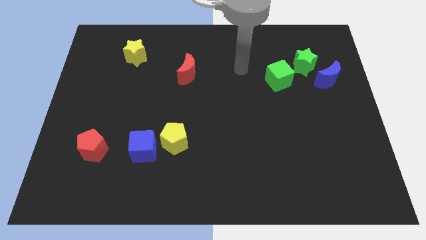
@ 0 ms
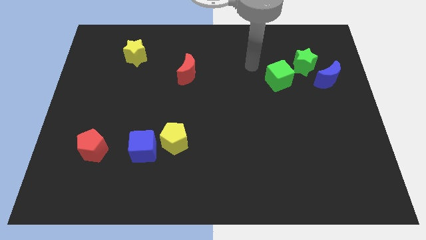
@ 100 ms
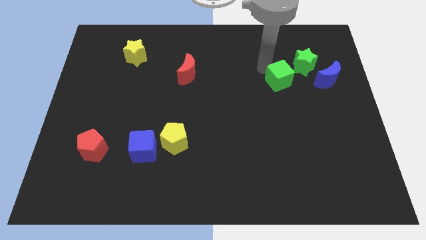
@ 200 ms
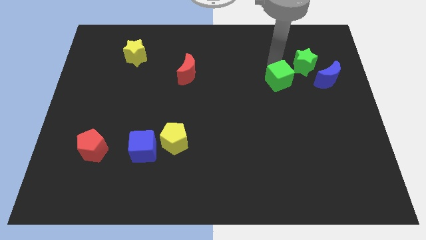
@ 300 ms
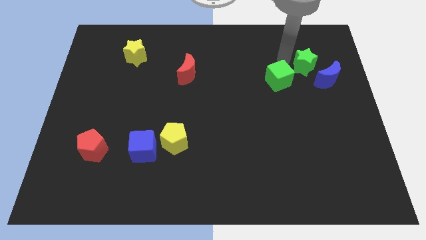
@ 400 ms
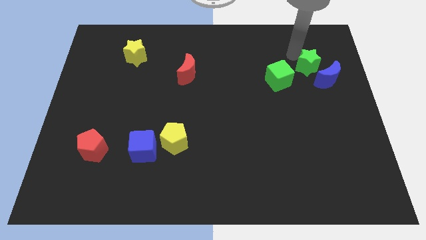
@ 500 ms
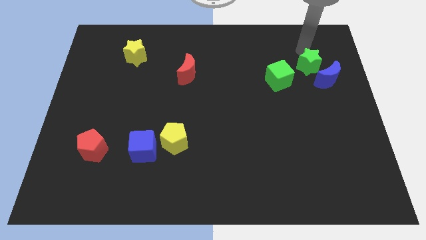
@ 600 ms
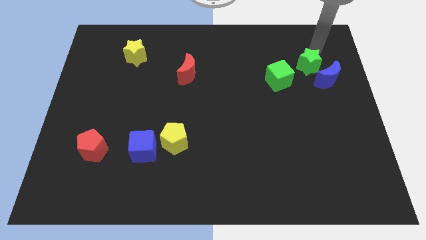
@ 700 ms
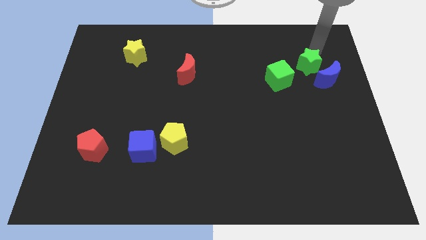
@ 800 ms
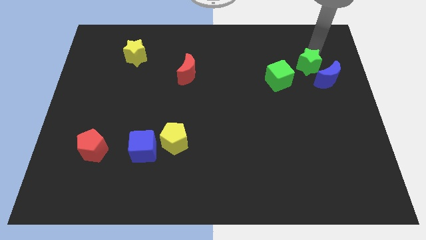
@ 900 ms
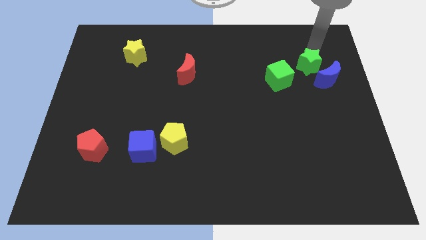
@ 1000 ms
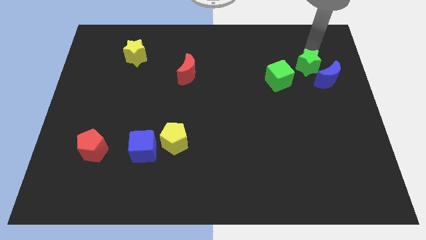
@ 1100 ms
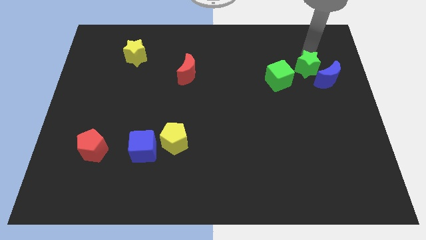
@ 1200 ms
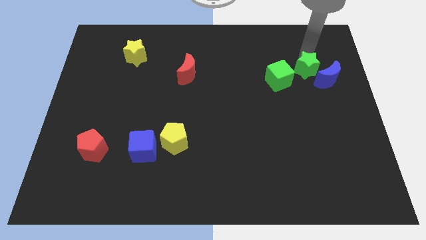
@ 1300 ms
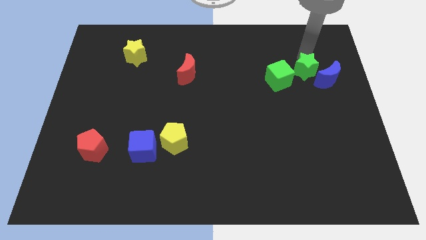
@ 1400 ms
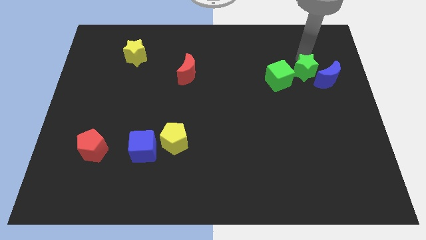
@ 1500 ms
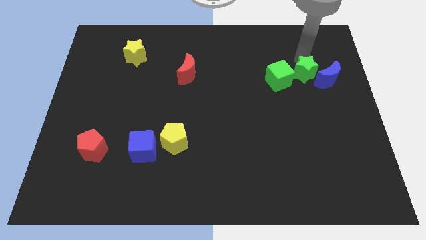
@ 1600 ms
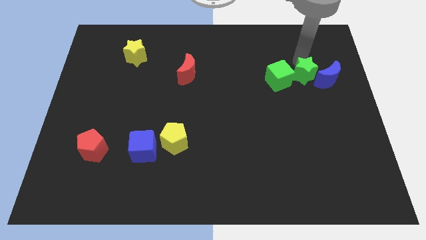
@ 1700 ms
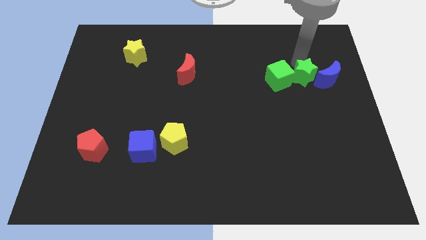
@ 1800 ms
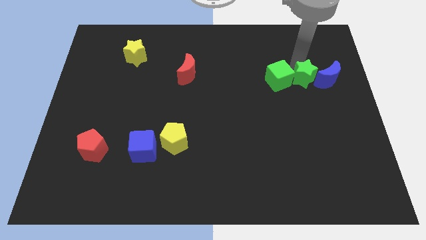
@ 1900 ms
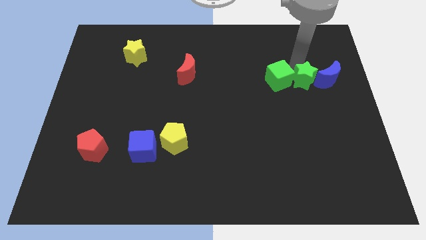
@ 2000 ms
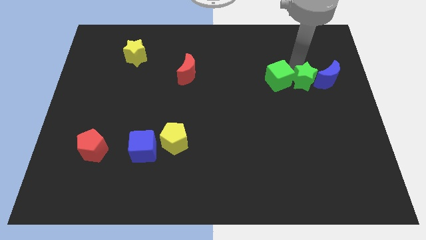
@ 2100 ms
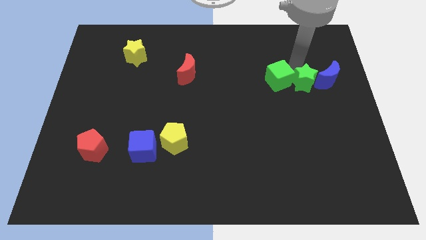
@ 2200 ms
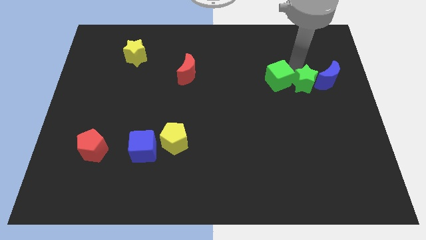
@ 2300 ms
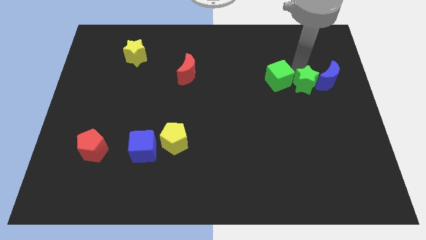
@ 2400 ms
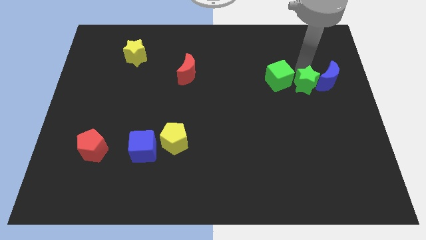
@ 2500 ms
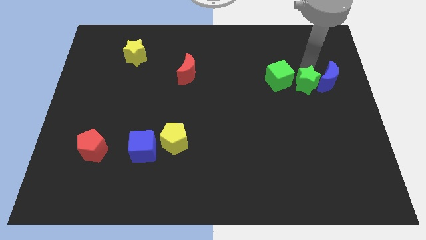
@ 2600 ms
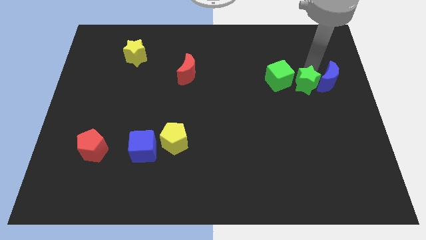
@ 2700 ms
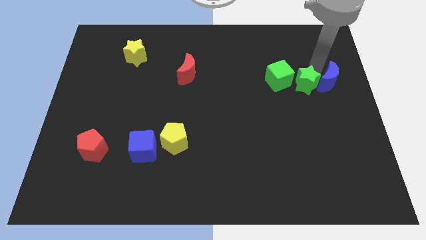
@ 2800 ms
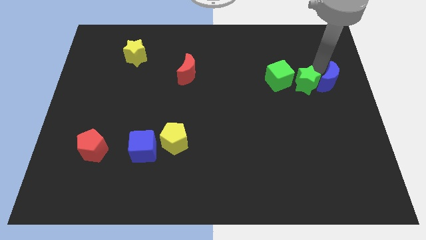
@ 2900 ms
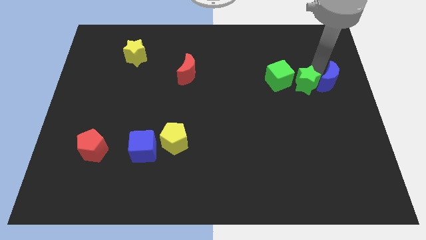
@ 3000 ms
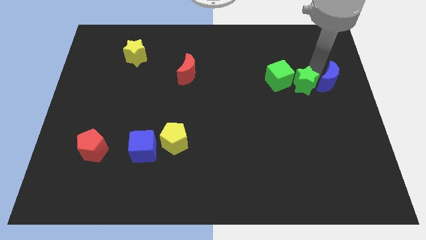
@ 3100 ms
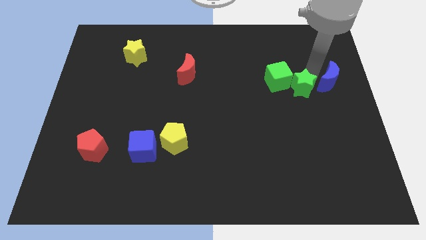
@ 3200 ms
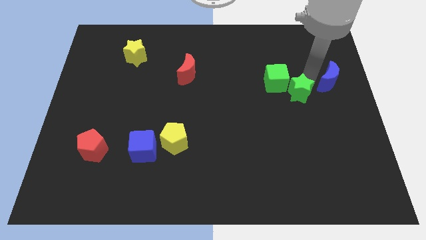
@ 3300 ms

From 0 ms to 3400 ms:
move the green star down and left a little

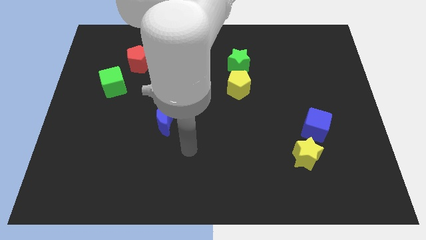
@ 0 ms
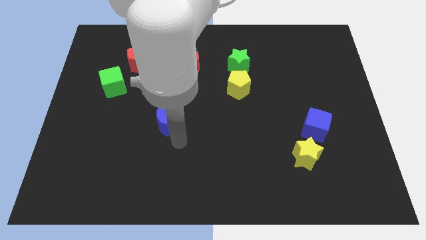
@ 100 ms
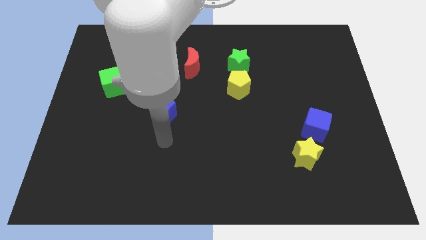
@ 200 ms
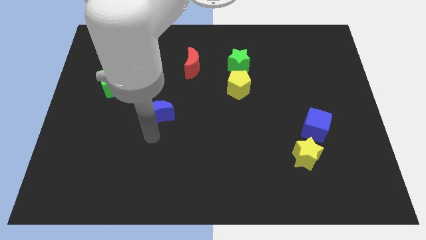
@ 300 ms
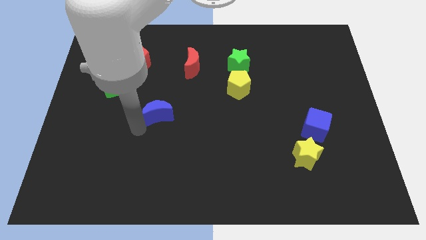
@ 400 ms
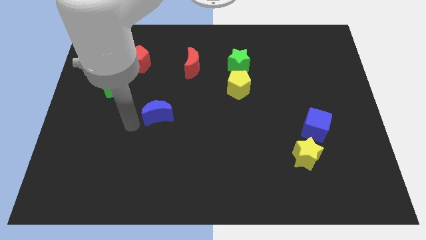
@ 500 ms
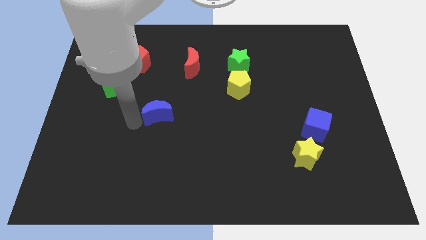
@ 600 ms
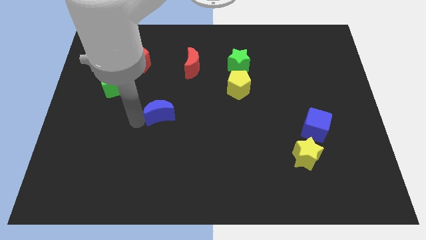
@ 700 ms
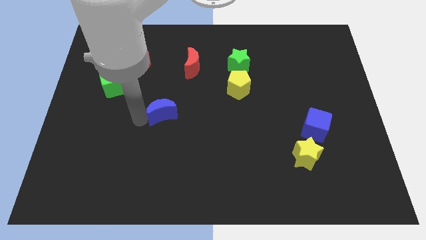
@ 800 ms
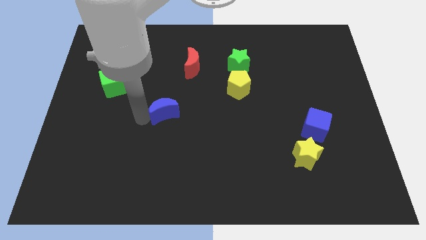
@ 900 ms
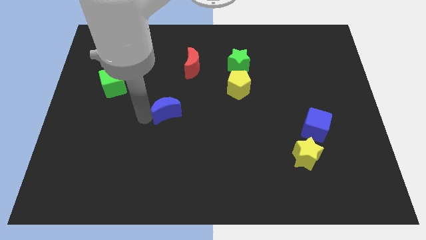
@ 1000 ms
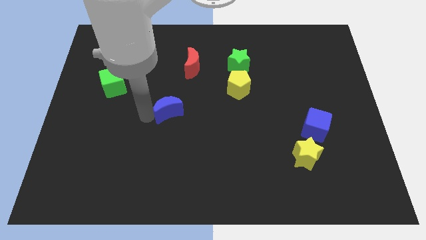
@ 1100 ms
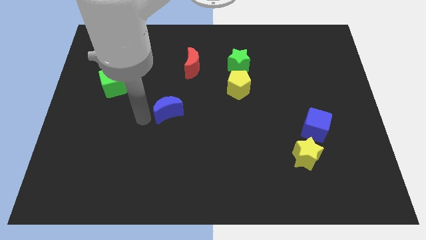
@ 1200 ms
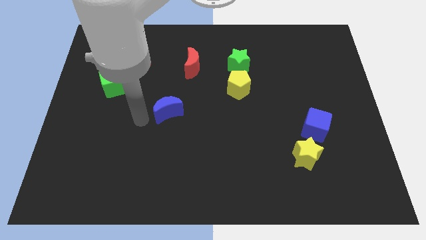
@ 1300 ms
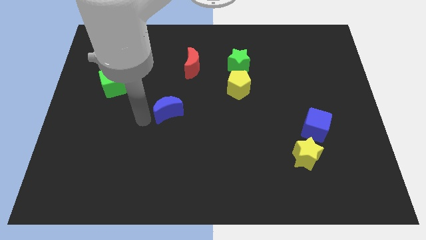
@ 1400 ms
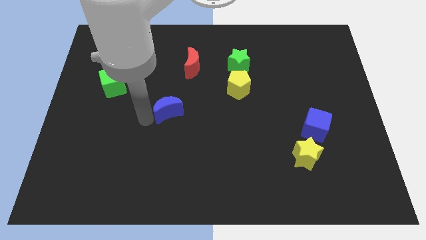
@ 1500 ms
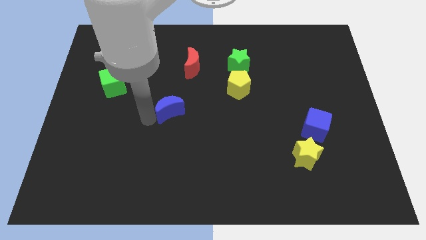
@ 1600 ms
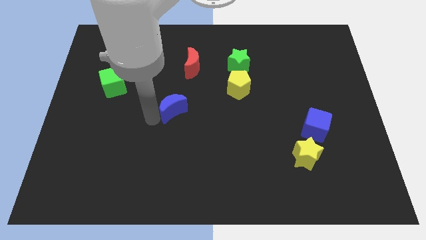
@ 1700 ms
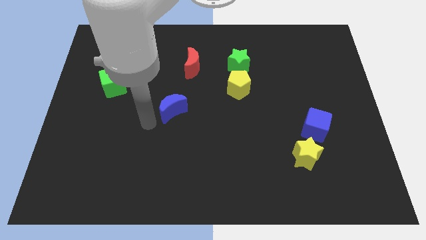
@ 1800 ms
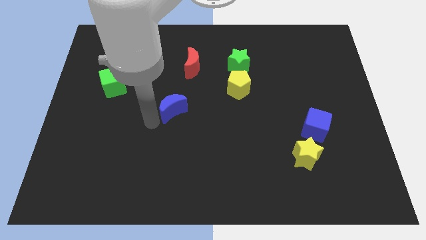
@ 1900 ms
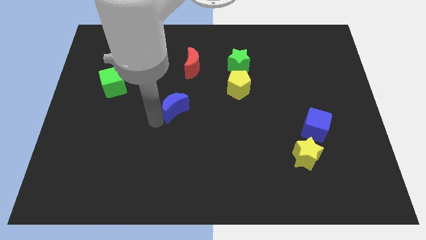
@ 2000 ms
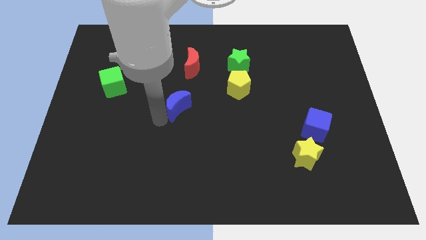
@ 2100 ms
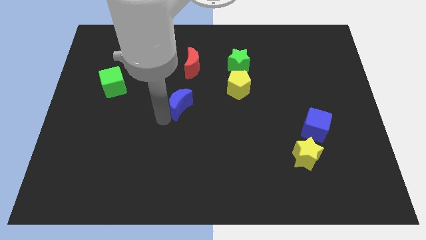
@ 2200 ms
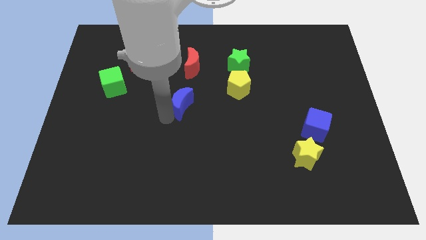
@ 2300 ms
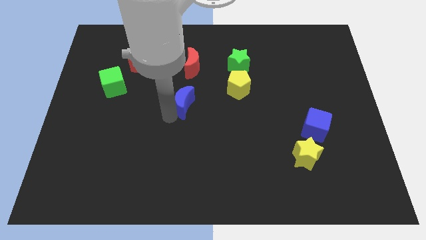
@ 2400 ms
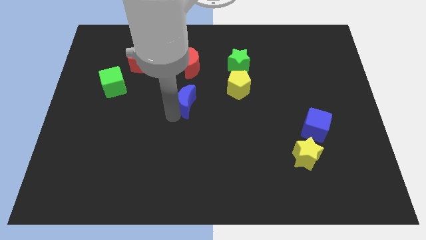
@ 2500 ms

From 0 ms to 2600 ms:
push the blue moon upwards and right somewhat

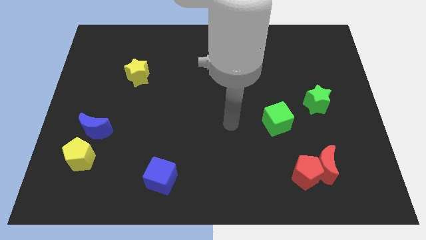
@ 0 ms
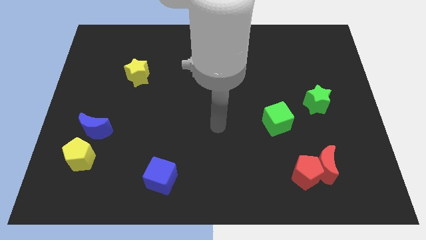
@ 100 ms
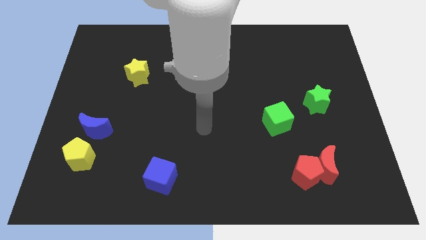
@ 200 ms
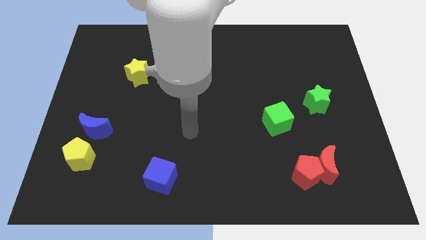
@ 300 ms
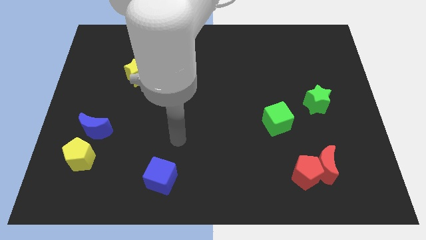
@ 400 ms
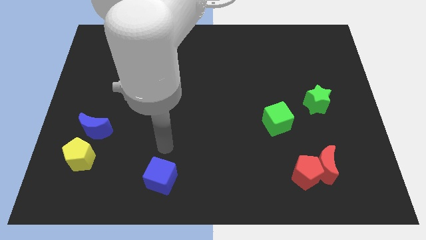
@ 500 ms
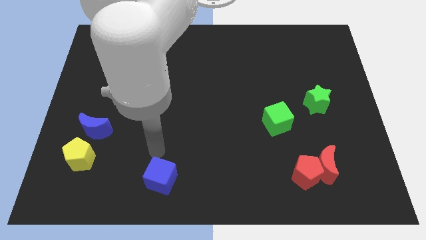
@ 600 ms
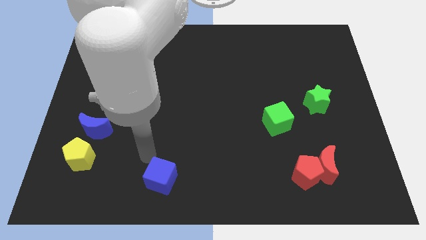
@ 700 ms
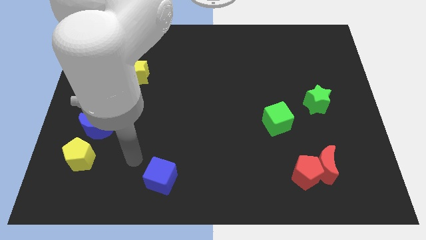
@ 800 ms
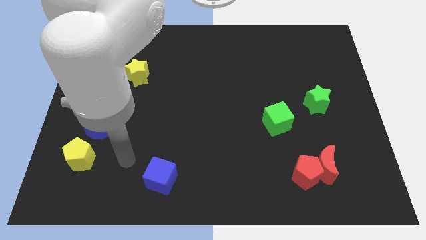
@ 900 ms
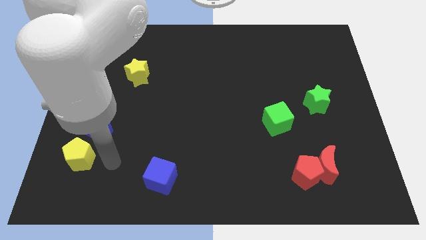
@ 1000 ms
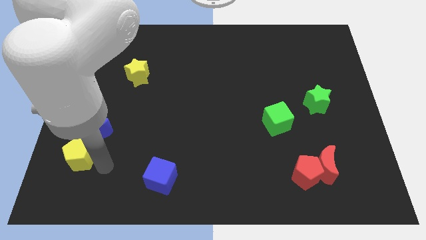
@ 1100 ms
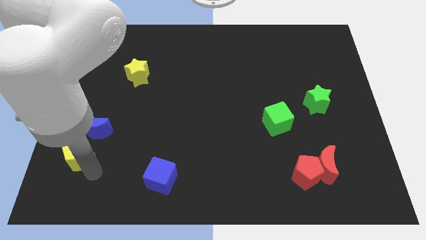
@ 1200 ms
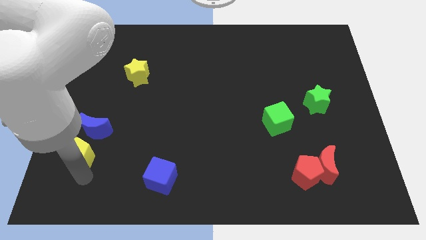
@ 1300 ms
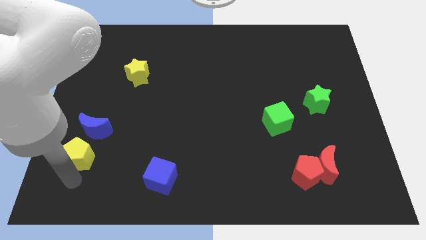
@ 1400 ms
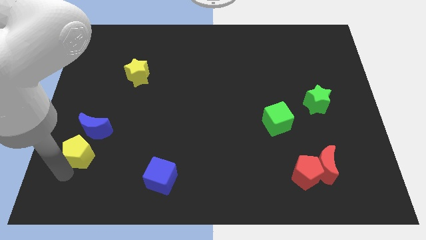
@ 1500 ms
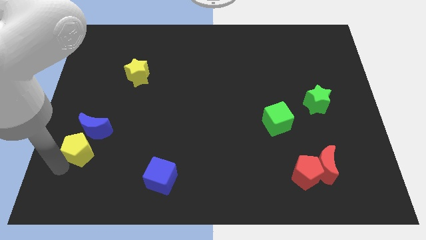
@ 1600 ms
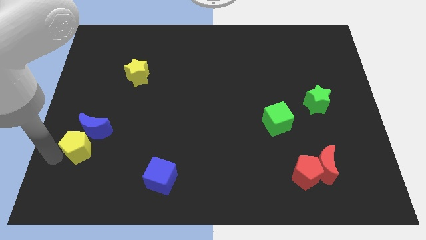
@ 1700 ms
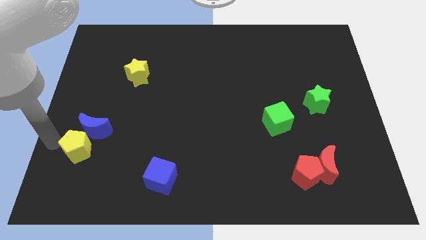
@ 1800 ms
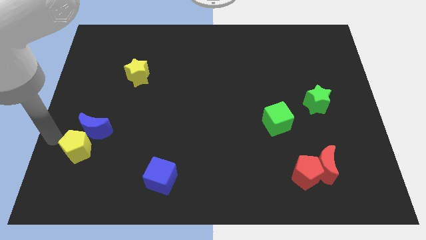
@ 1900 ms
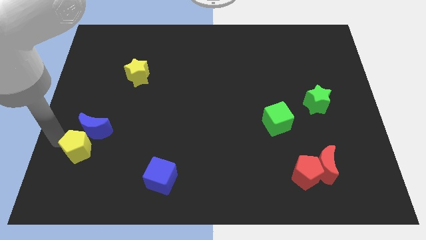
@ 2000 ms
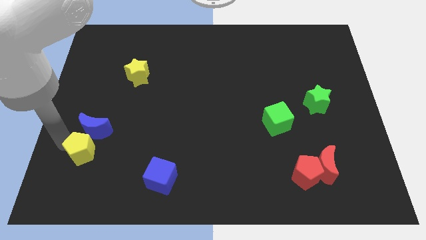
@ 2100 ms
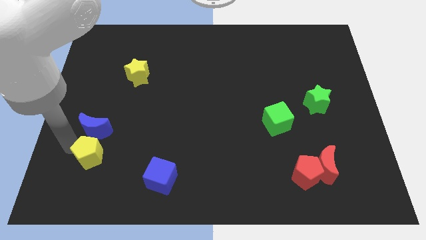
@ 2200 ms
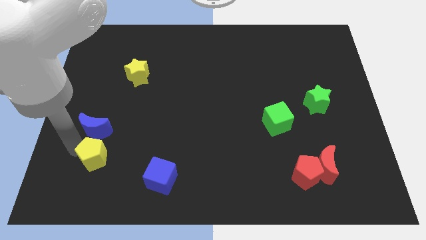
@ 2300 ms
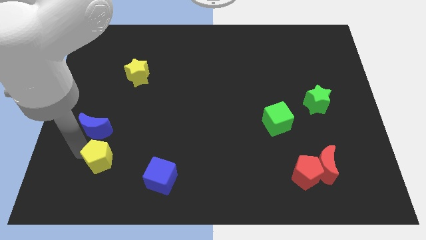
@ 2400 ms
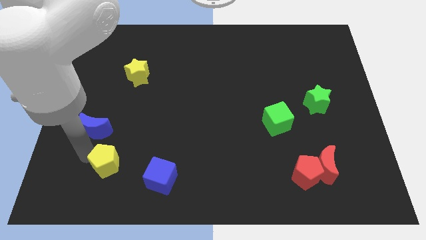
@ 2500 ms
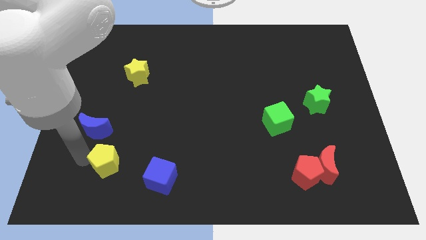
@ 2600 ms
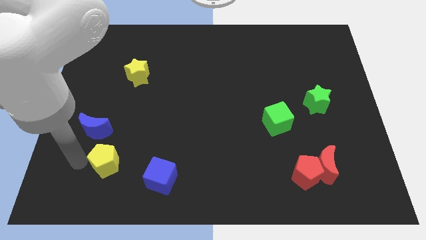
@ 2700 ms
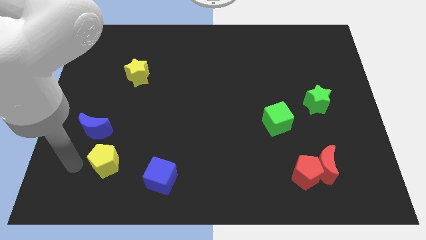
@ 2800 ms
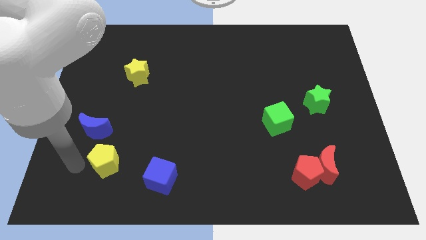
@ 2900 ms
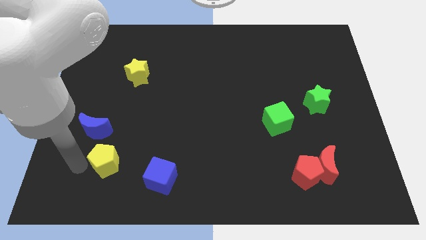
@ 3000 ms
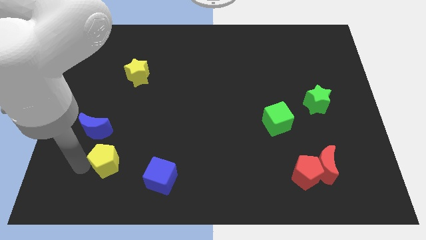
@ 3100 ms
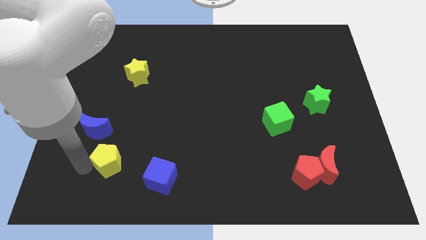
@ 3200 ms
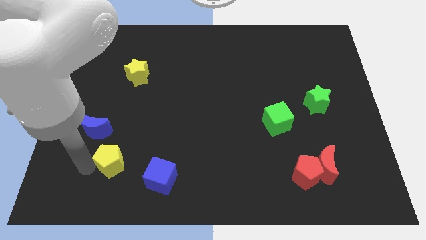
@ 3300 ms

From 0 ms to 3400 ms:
slightly slide the yellow pentagon right
